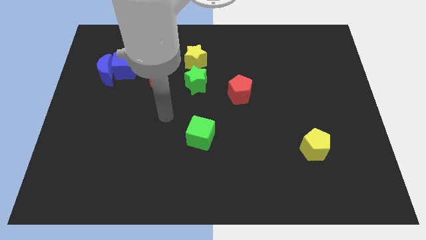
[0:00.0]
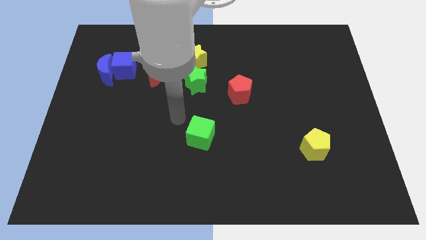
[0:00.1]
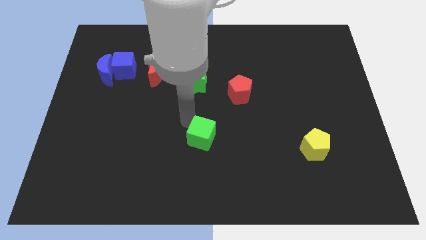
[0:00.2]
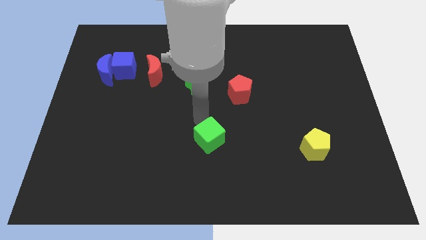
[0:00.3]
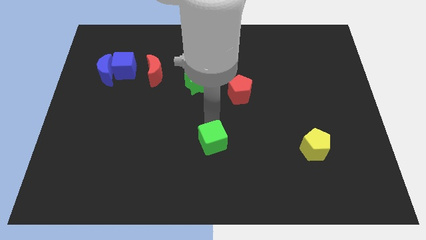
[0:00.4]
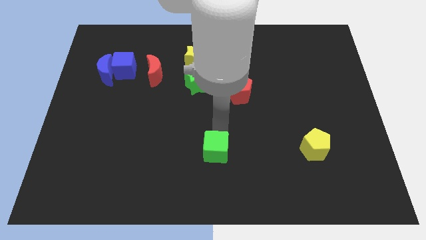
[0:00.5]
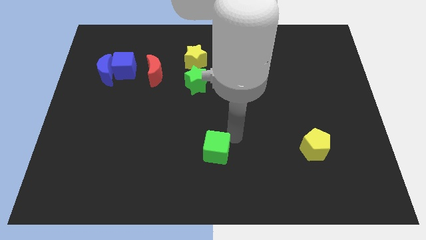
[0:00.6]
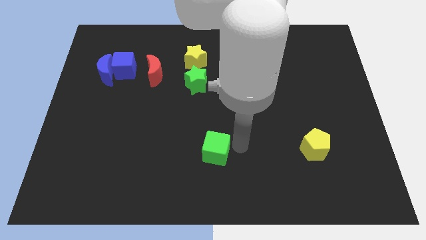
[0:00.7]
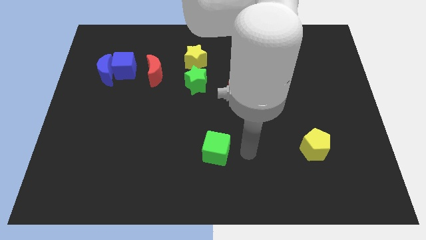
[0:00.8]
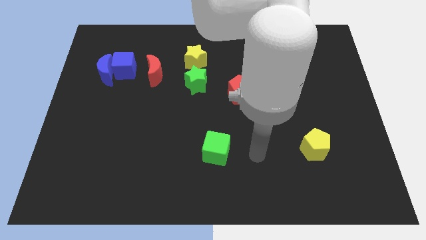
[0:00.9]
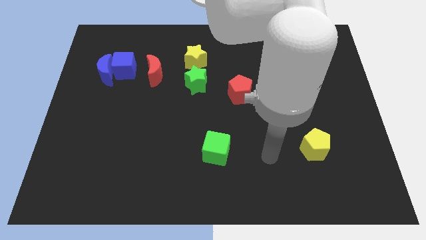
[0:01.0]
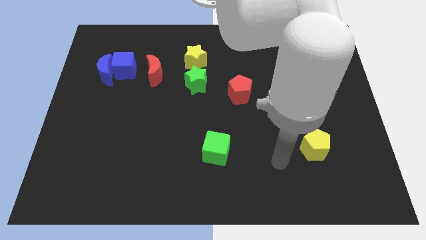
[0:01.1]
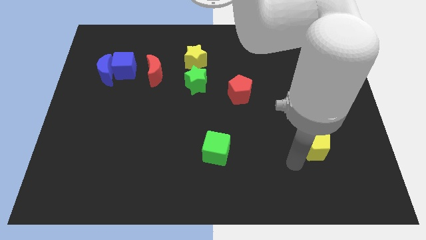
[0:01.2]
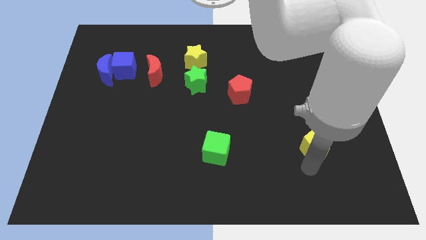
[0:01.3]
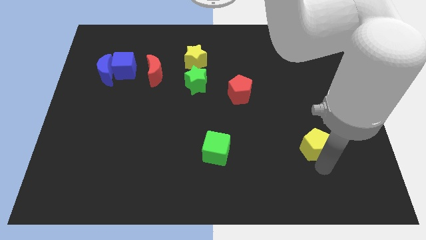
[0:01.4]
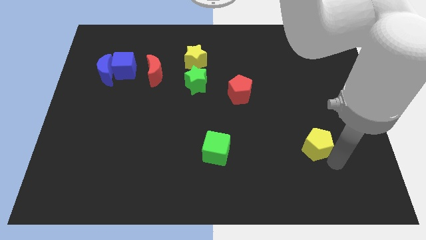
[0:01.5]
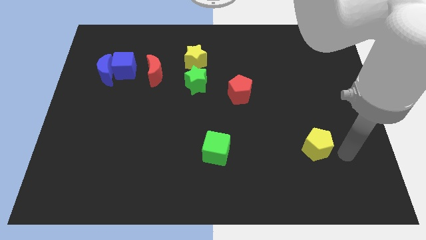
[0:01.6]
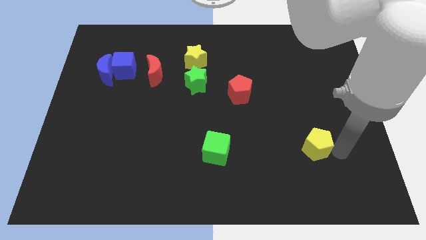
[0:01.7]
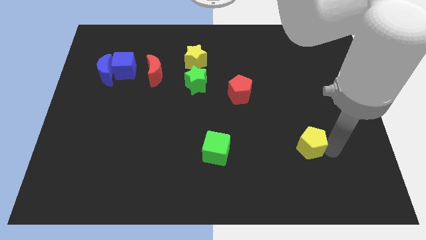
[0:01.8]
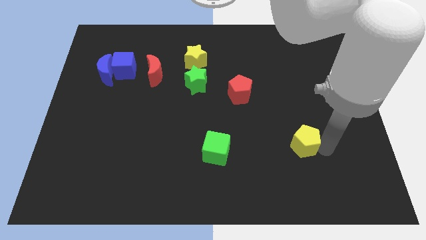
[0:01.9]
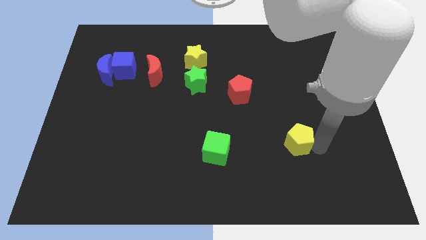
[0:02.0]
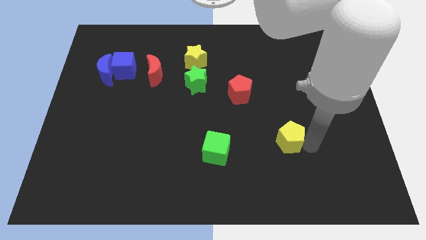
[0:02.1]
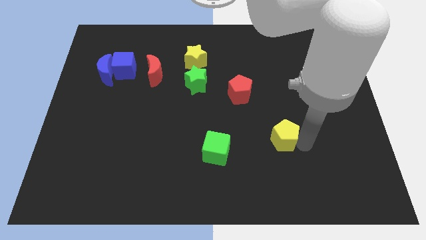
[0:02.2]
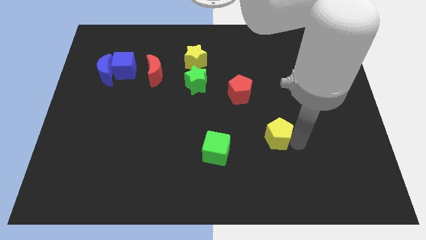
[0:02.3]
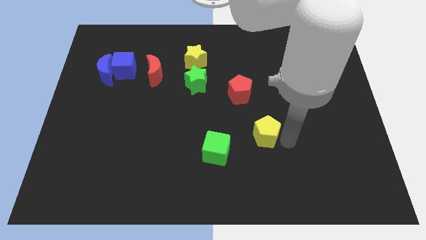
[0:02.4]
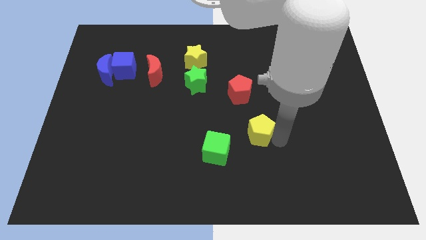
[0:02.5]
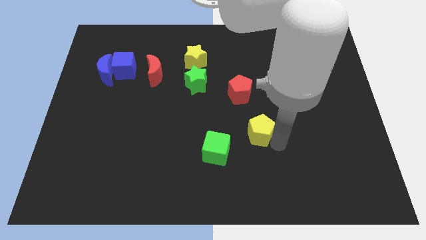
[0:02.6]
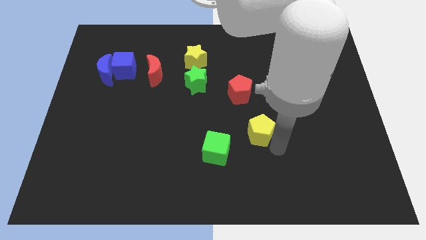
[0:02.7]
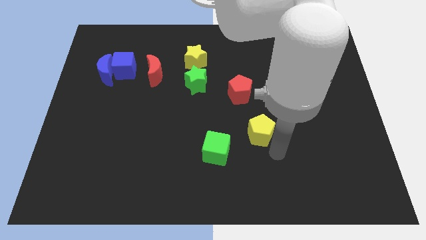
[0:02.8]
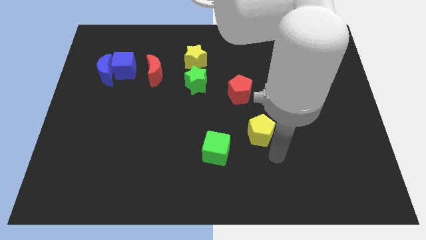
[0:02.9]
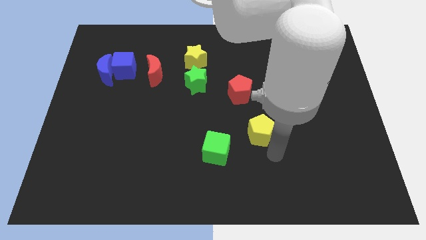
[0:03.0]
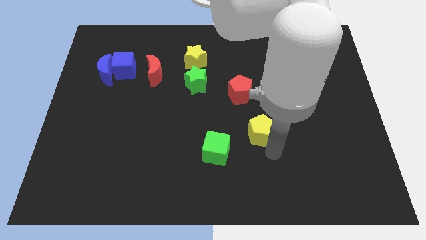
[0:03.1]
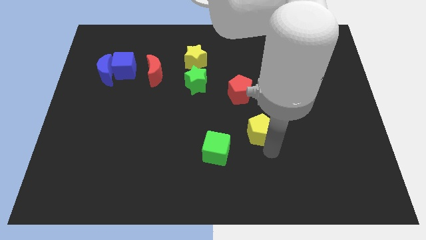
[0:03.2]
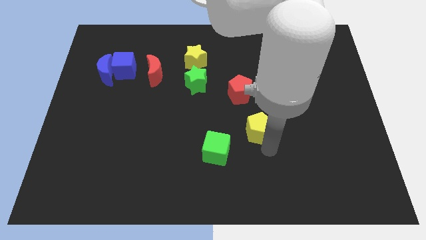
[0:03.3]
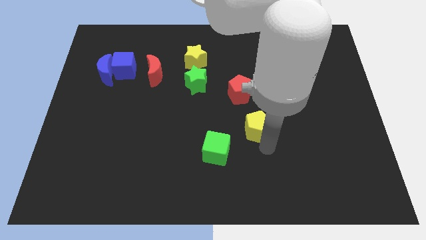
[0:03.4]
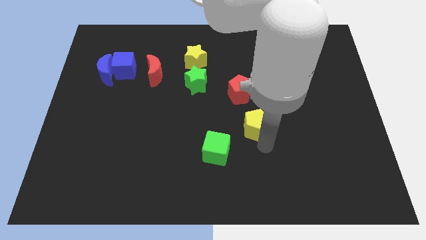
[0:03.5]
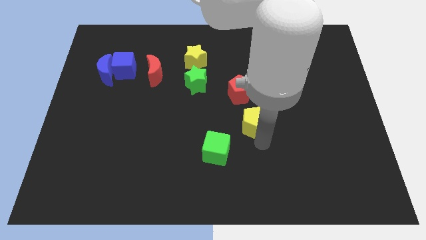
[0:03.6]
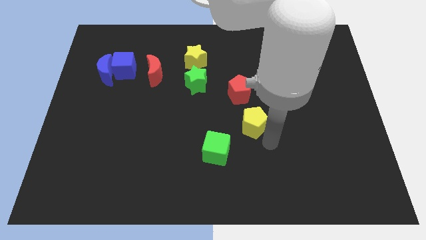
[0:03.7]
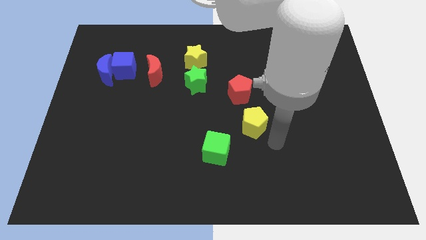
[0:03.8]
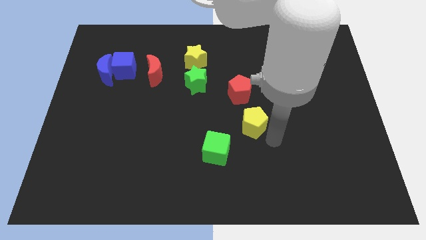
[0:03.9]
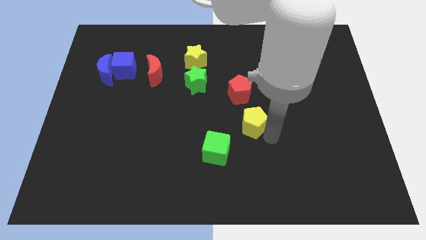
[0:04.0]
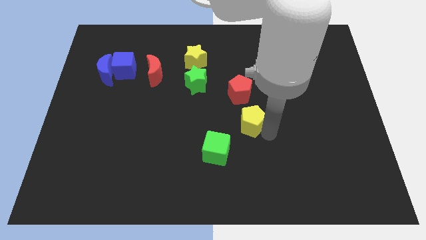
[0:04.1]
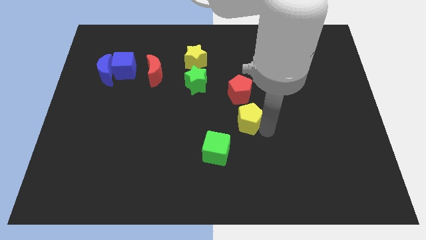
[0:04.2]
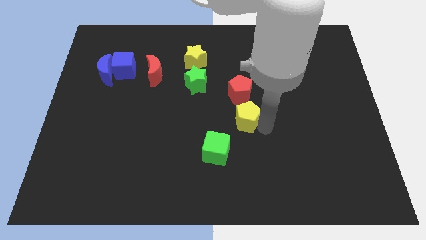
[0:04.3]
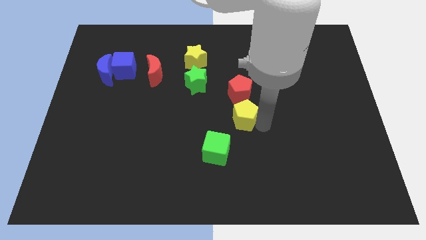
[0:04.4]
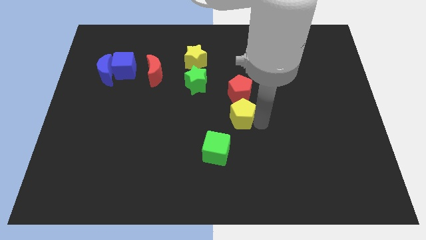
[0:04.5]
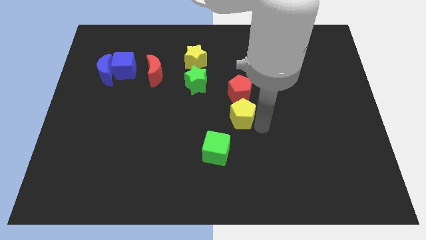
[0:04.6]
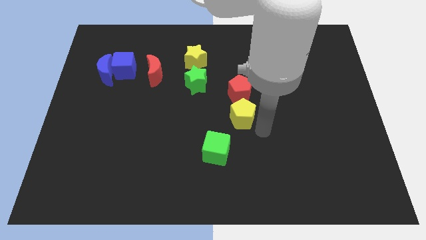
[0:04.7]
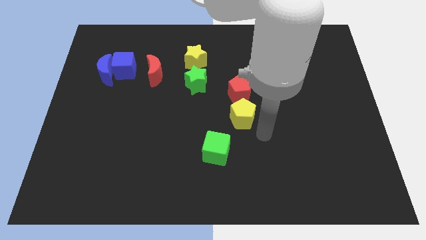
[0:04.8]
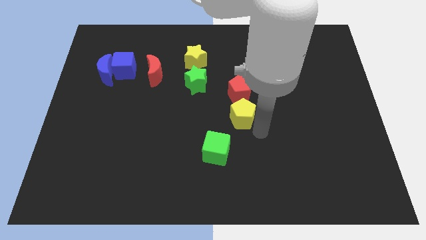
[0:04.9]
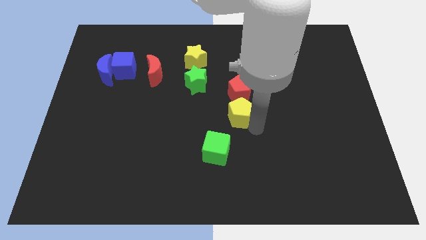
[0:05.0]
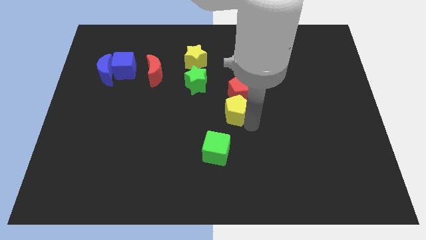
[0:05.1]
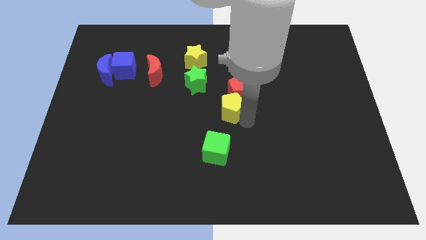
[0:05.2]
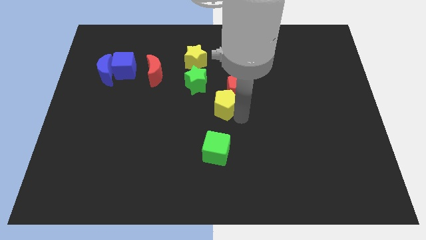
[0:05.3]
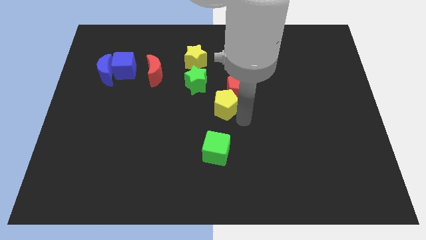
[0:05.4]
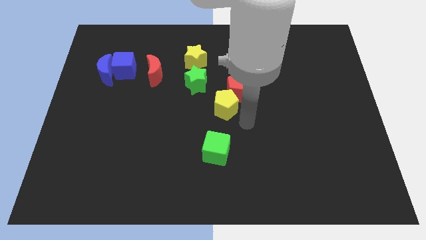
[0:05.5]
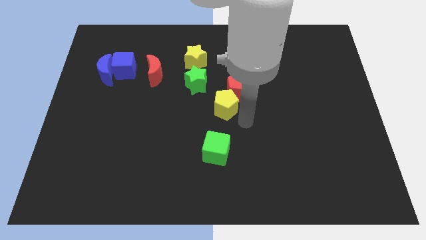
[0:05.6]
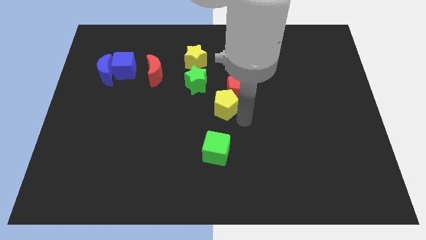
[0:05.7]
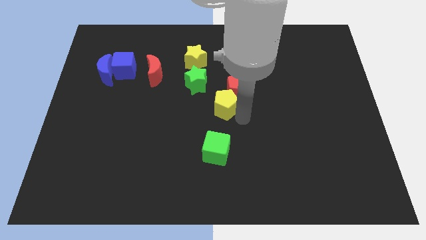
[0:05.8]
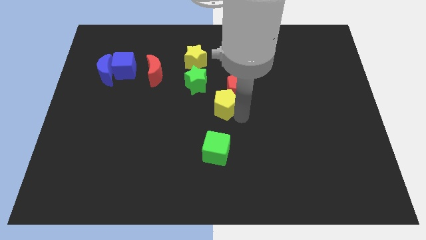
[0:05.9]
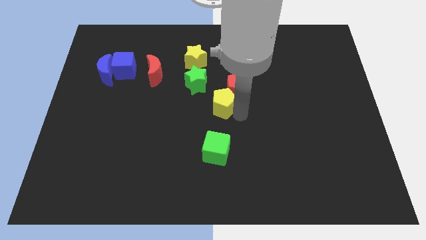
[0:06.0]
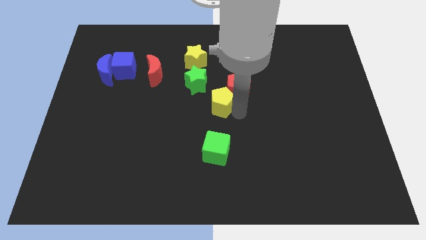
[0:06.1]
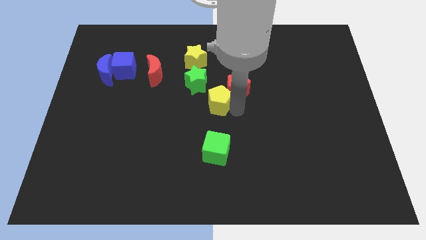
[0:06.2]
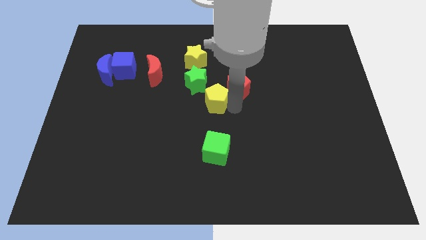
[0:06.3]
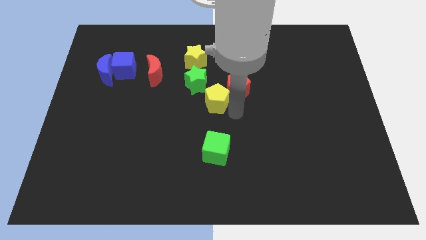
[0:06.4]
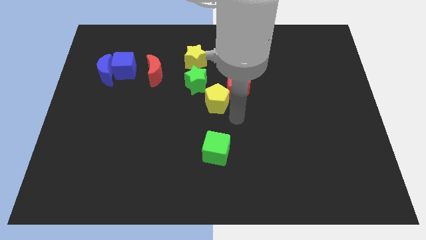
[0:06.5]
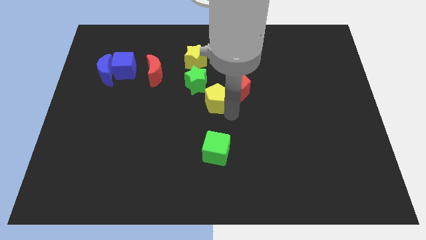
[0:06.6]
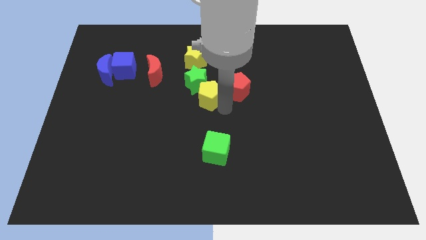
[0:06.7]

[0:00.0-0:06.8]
slide the yellow pentagon close to the green star
